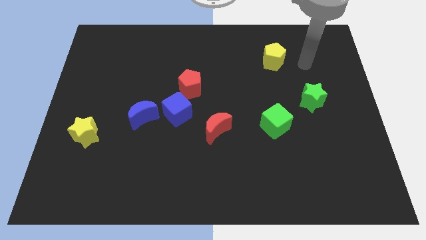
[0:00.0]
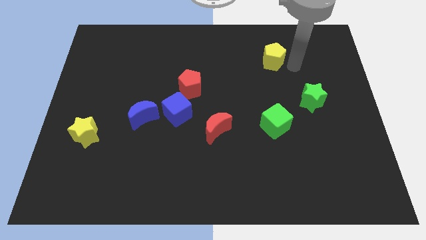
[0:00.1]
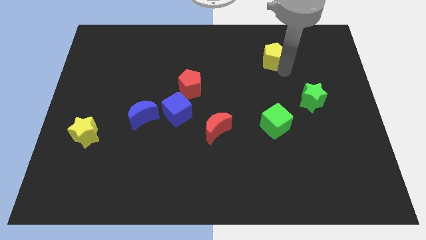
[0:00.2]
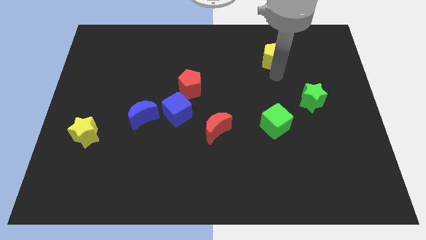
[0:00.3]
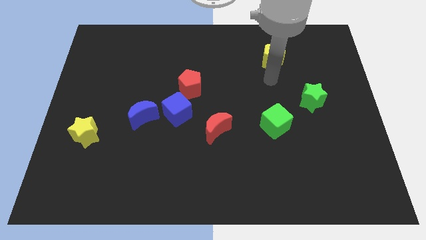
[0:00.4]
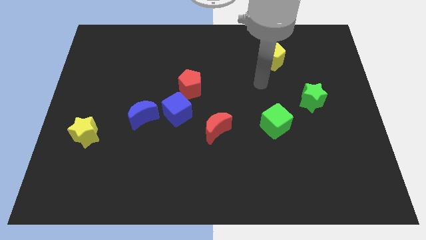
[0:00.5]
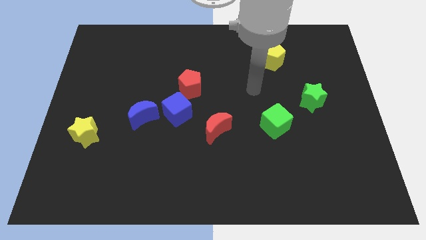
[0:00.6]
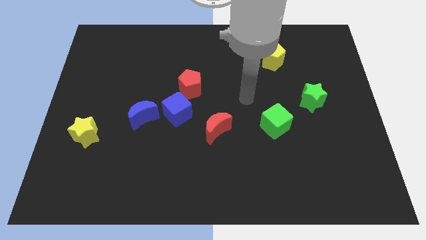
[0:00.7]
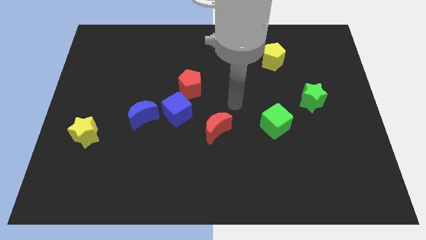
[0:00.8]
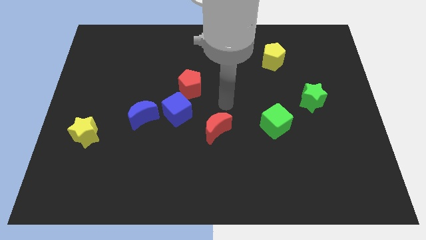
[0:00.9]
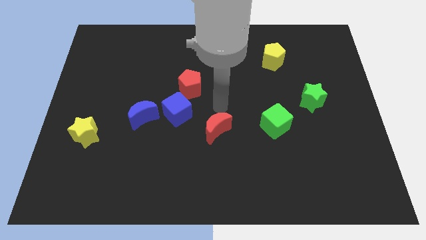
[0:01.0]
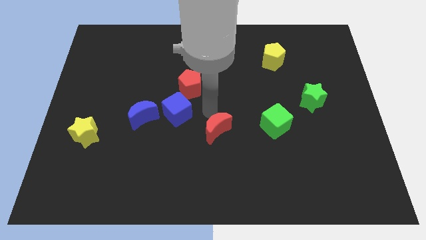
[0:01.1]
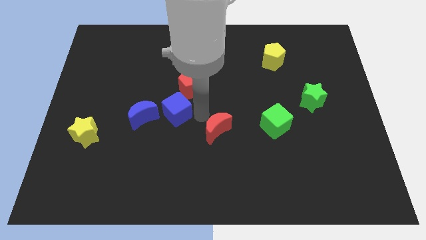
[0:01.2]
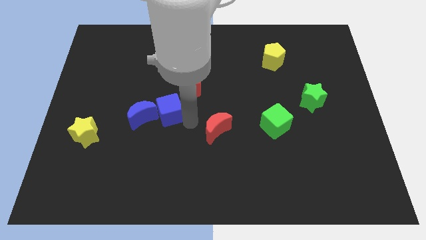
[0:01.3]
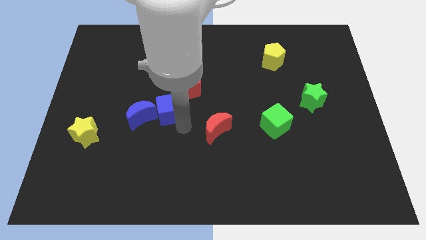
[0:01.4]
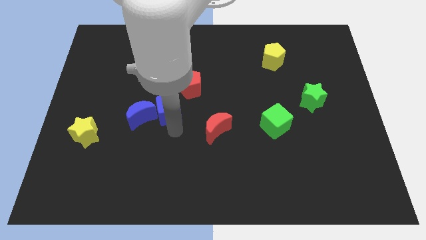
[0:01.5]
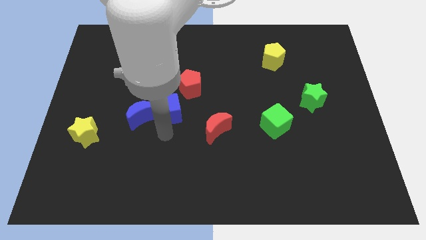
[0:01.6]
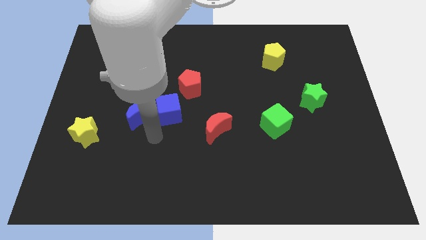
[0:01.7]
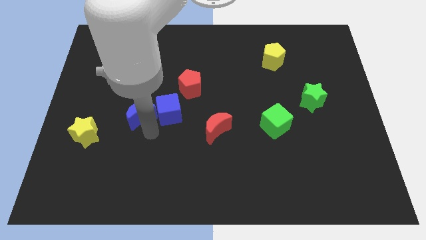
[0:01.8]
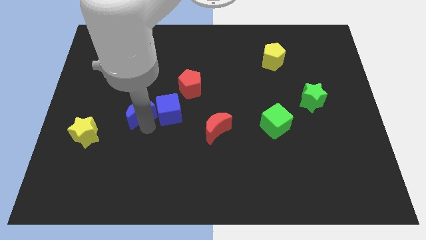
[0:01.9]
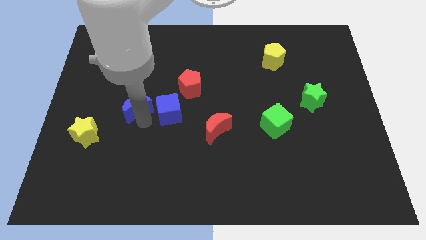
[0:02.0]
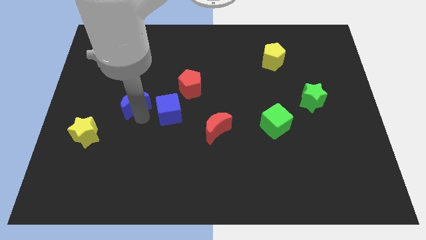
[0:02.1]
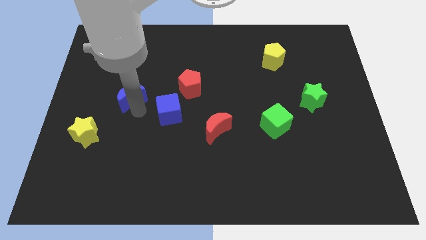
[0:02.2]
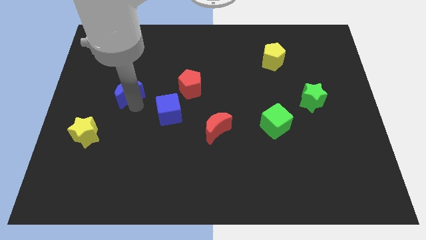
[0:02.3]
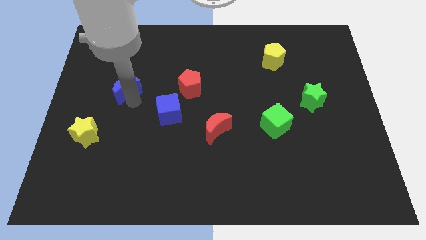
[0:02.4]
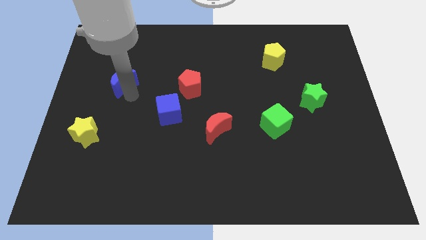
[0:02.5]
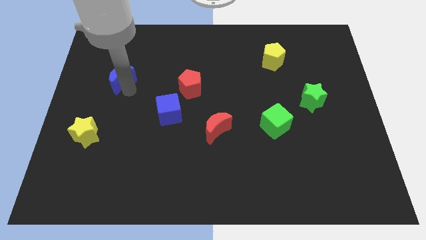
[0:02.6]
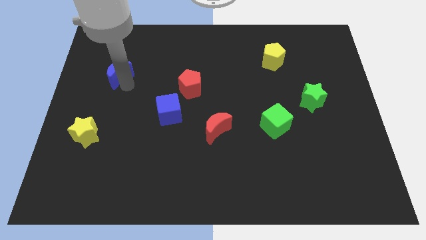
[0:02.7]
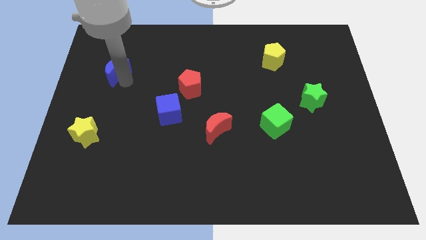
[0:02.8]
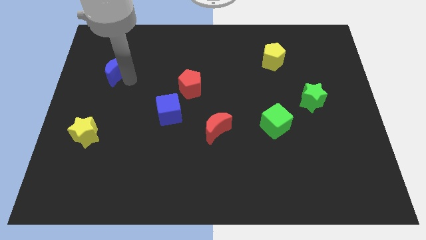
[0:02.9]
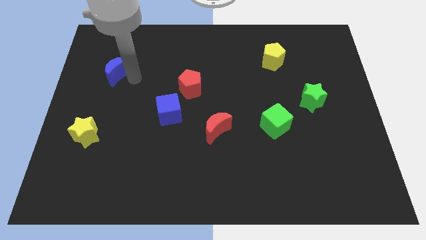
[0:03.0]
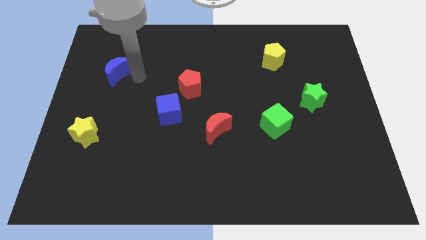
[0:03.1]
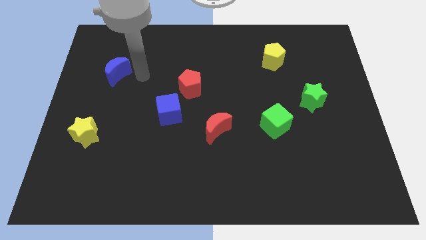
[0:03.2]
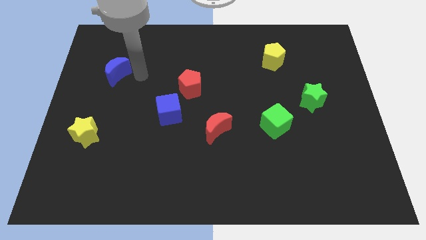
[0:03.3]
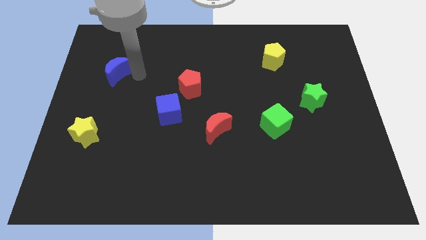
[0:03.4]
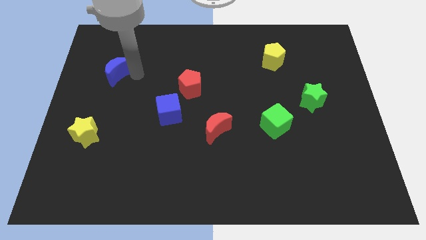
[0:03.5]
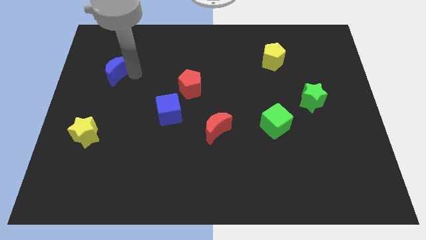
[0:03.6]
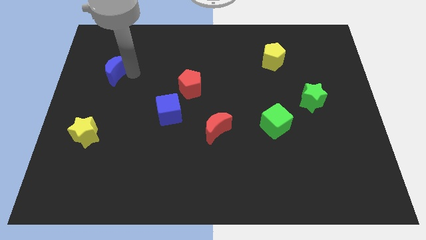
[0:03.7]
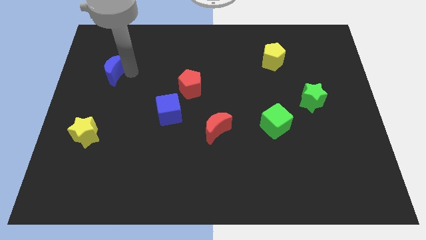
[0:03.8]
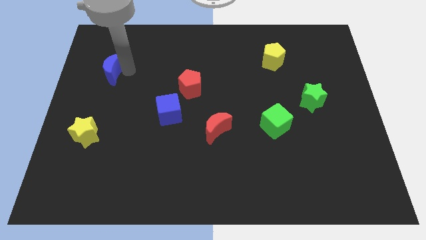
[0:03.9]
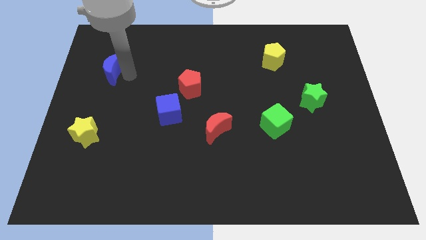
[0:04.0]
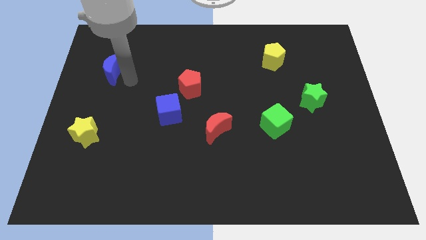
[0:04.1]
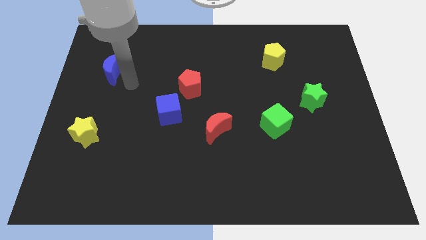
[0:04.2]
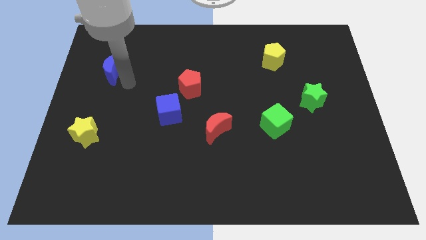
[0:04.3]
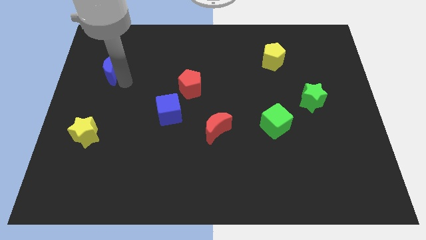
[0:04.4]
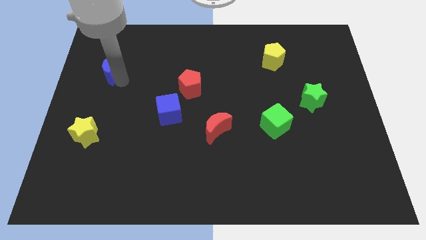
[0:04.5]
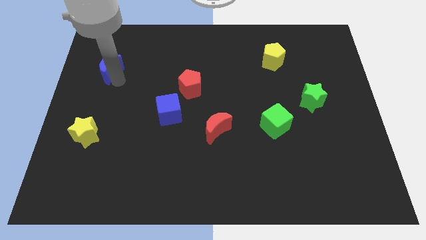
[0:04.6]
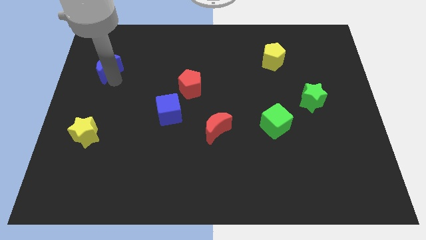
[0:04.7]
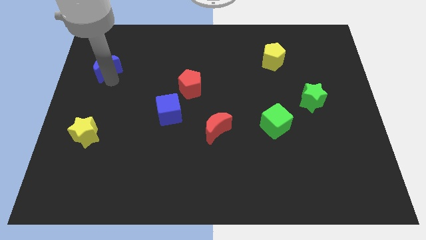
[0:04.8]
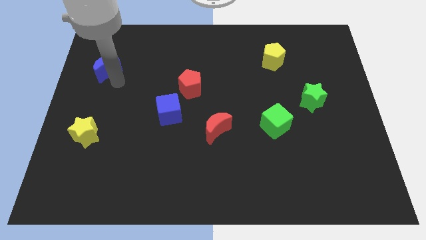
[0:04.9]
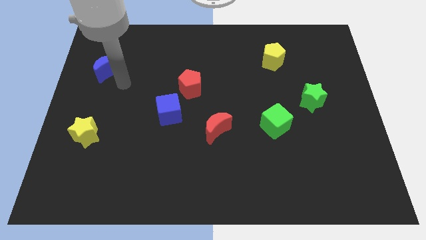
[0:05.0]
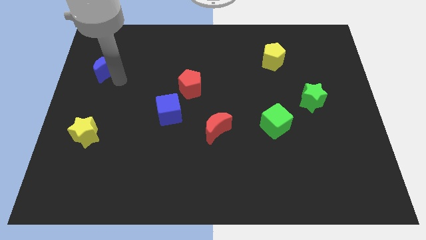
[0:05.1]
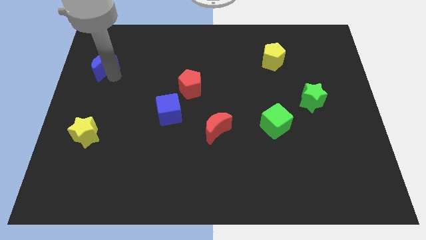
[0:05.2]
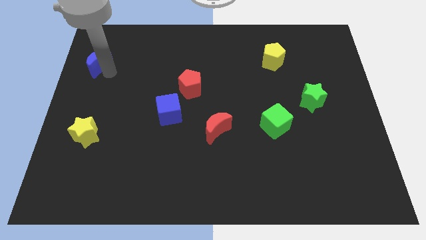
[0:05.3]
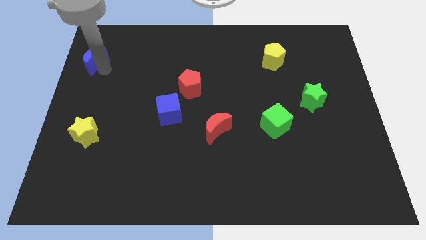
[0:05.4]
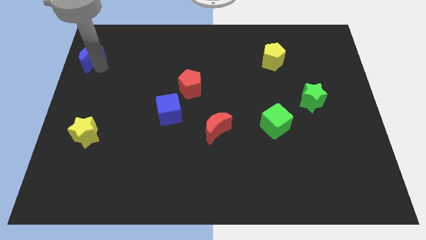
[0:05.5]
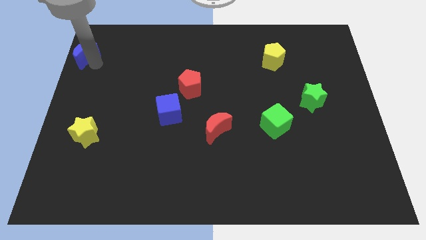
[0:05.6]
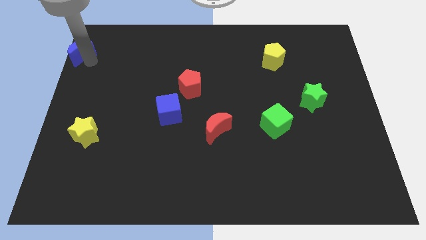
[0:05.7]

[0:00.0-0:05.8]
move the blue moon to the top left

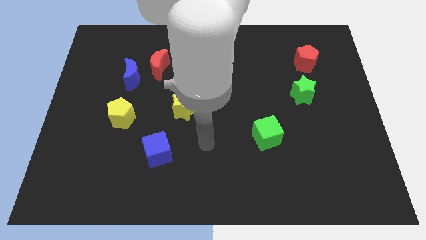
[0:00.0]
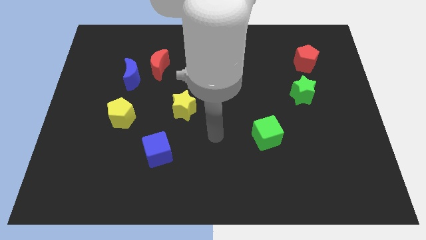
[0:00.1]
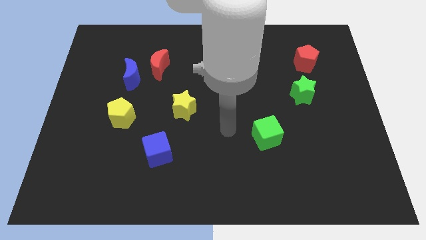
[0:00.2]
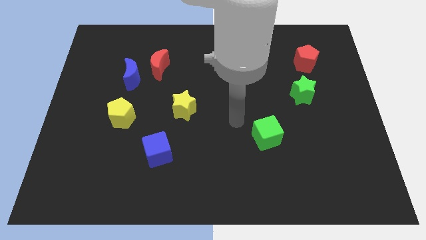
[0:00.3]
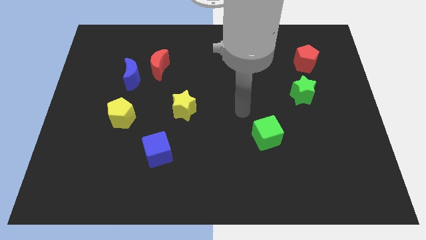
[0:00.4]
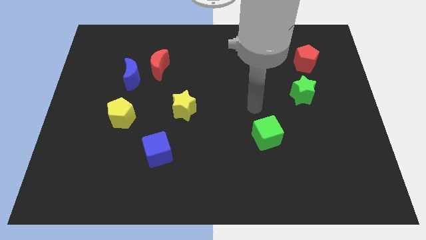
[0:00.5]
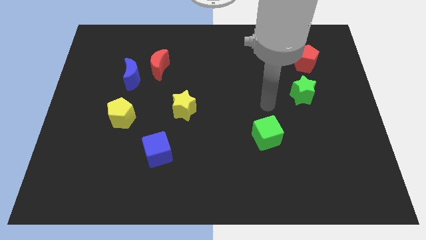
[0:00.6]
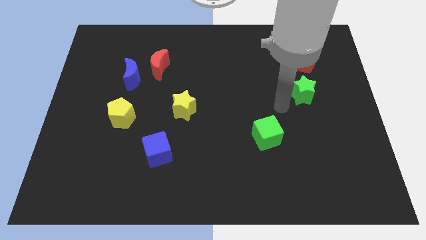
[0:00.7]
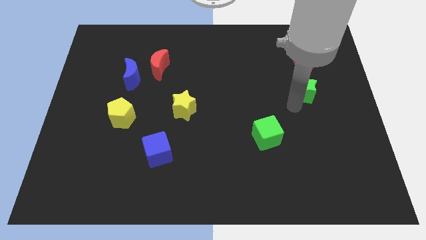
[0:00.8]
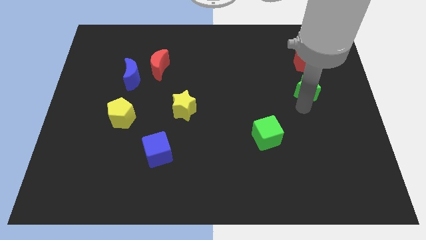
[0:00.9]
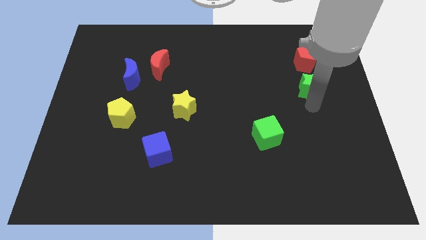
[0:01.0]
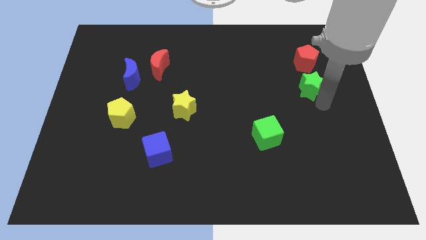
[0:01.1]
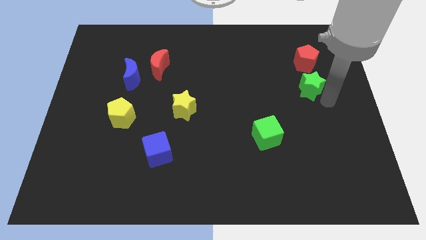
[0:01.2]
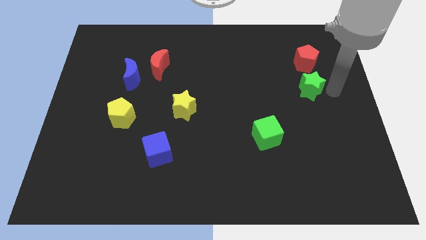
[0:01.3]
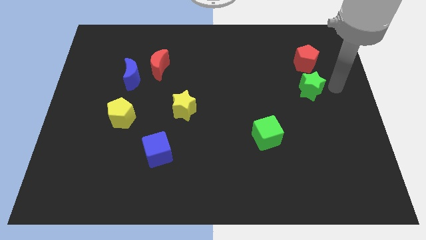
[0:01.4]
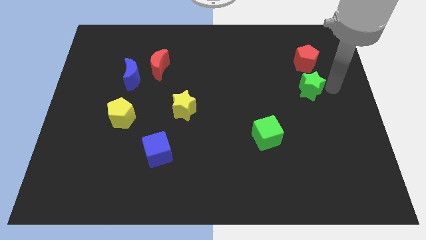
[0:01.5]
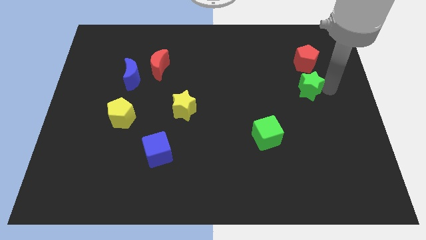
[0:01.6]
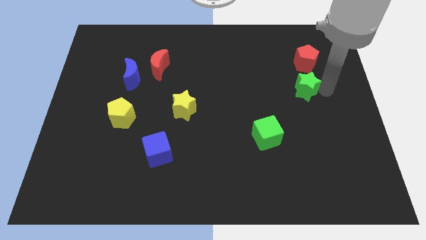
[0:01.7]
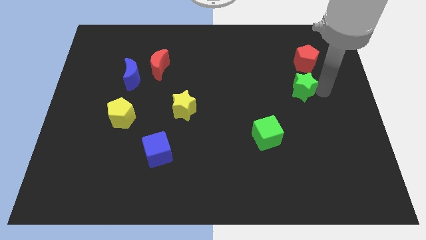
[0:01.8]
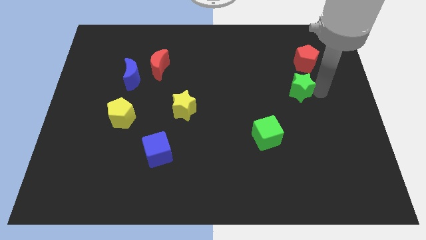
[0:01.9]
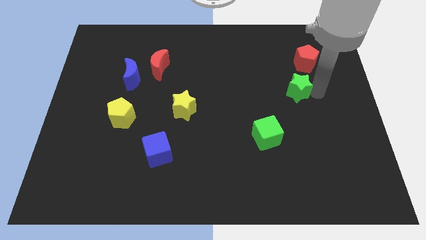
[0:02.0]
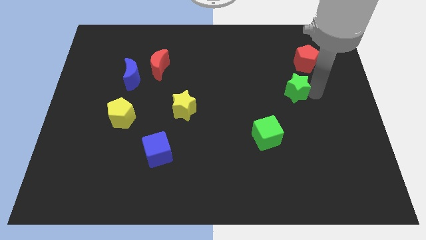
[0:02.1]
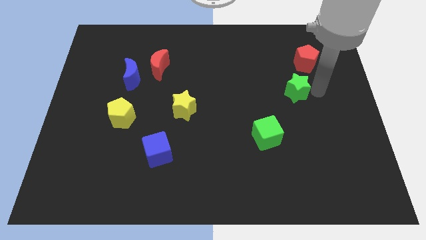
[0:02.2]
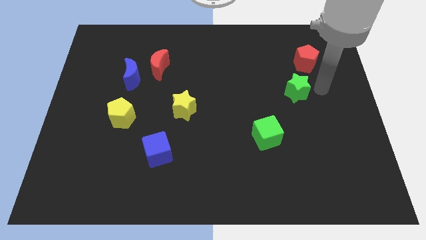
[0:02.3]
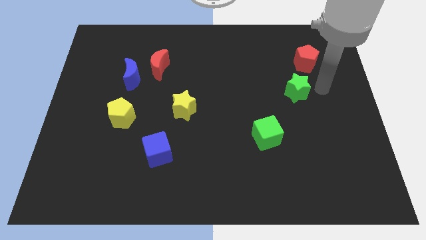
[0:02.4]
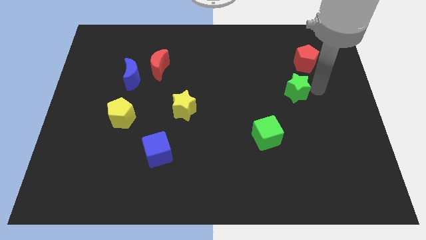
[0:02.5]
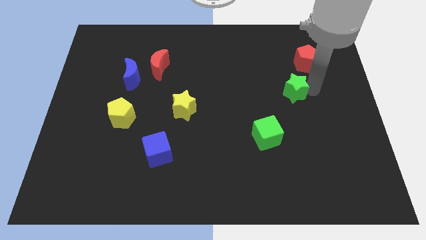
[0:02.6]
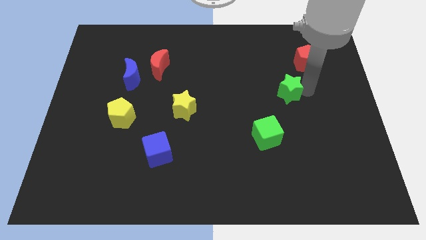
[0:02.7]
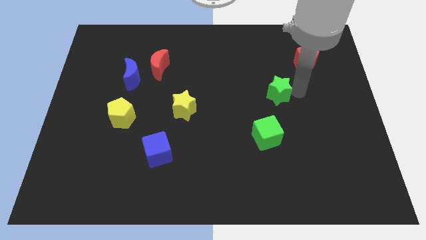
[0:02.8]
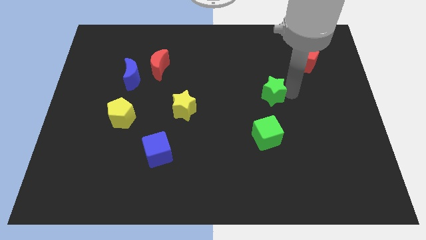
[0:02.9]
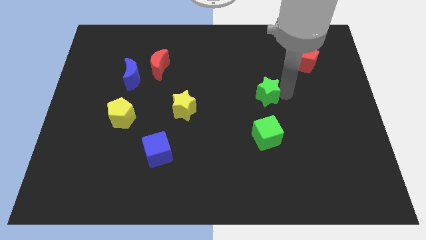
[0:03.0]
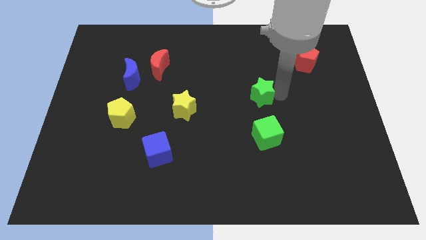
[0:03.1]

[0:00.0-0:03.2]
put the green star to the center of the board
